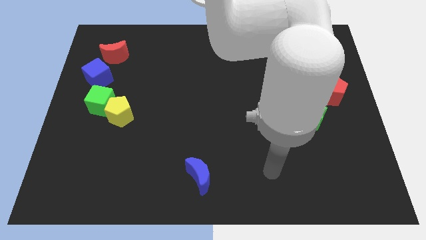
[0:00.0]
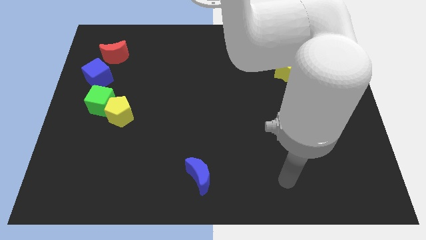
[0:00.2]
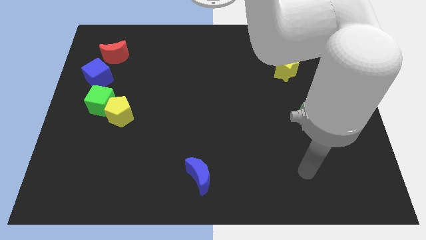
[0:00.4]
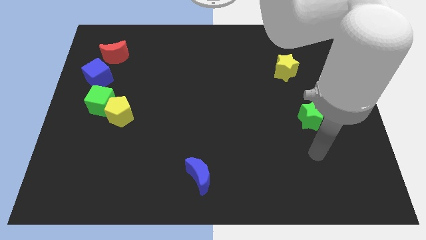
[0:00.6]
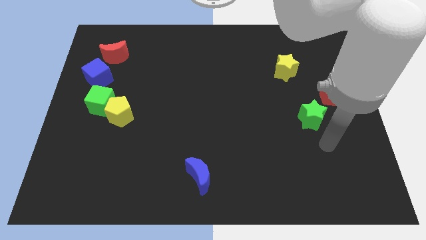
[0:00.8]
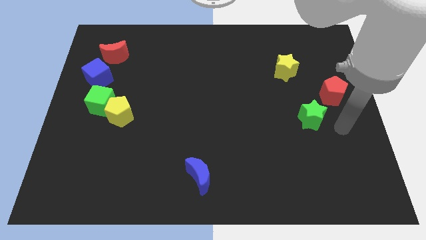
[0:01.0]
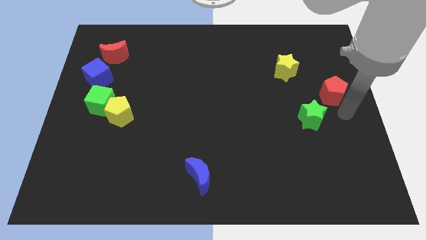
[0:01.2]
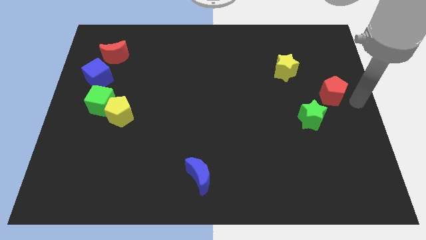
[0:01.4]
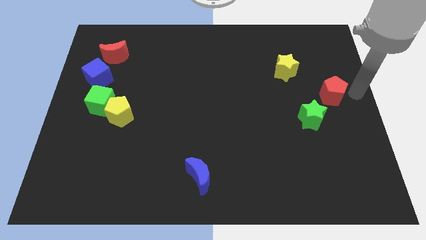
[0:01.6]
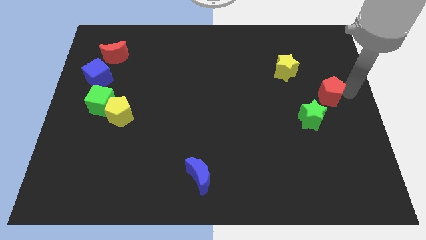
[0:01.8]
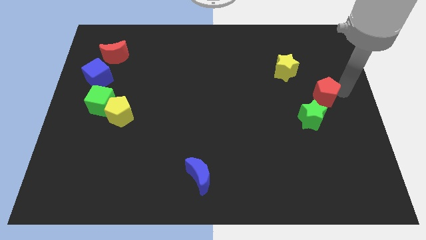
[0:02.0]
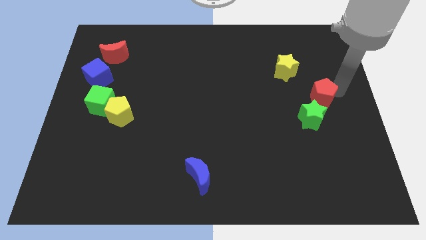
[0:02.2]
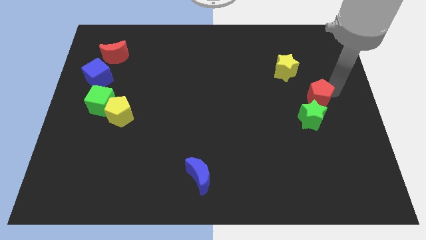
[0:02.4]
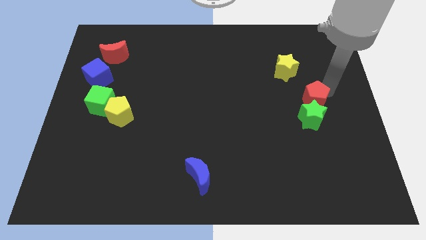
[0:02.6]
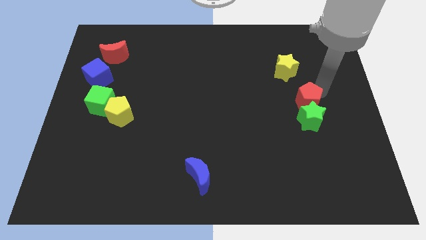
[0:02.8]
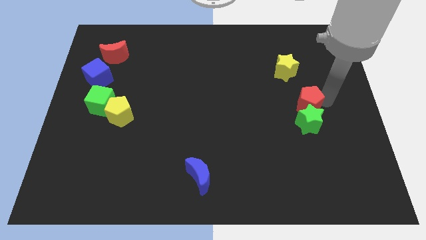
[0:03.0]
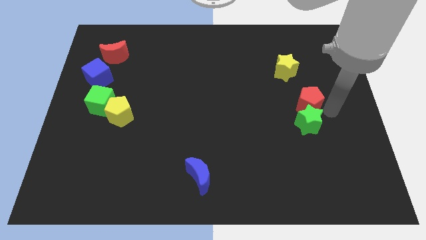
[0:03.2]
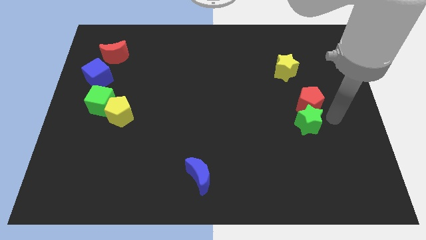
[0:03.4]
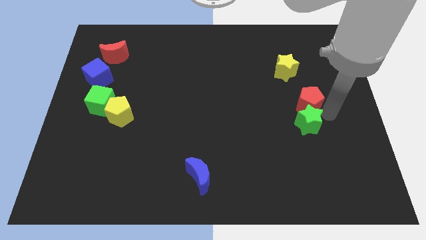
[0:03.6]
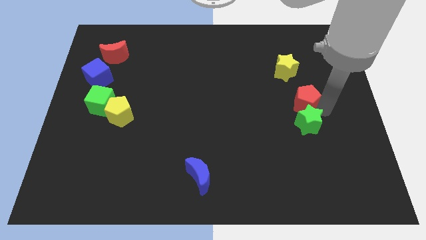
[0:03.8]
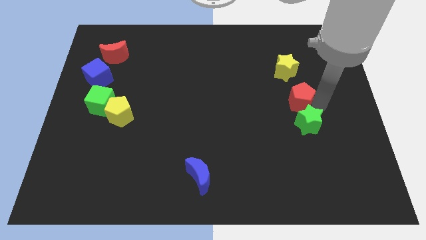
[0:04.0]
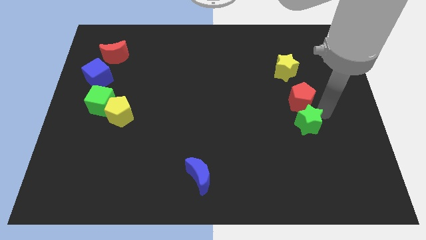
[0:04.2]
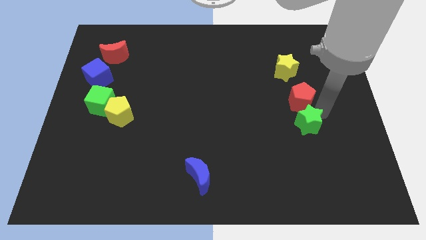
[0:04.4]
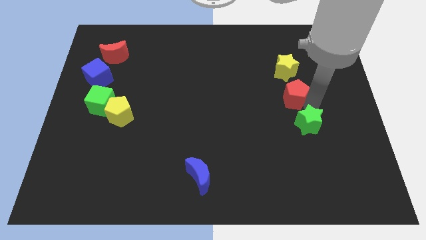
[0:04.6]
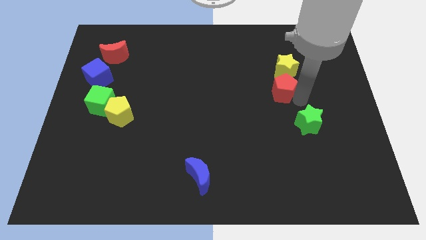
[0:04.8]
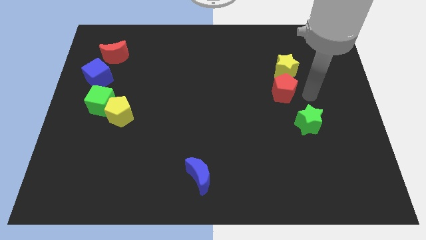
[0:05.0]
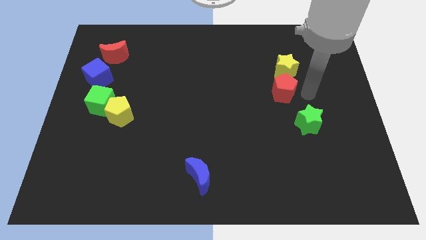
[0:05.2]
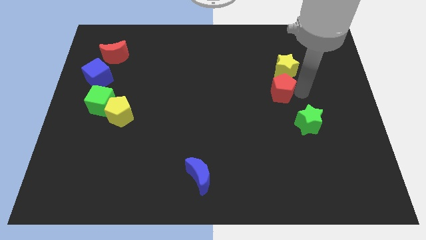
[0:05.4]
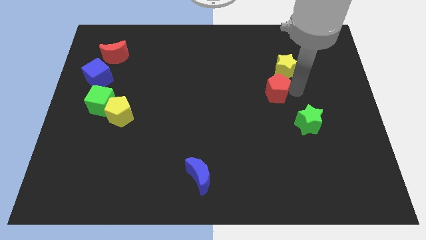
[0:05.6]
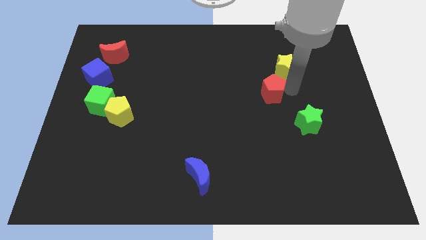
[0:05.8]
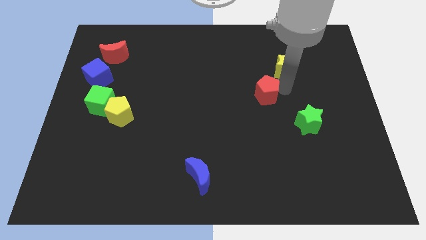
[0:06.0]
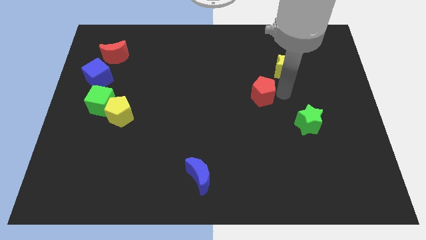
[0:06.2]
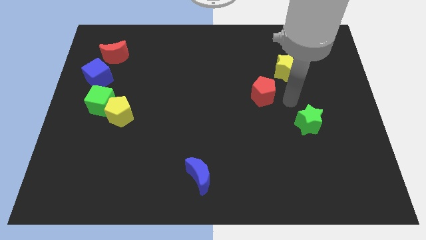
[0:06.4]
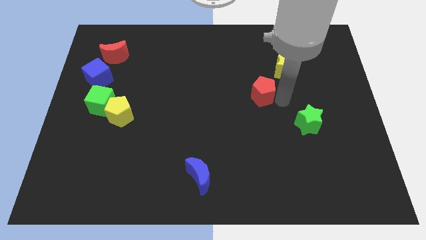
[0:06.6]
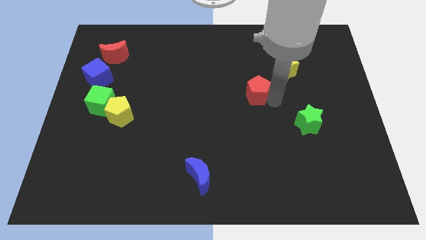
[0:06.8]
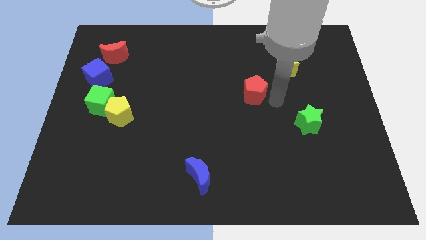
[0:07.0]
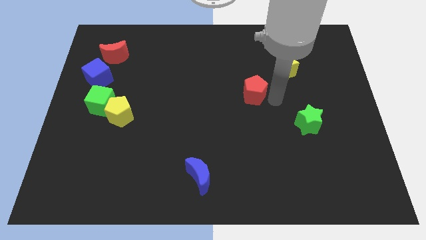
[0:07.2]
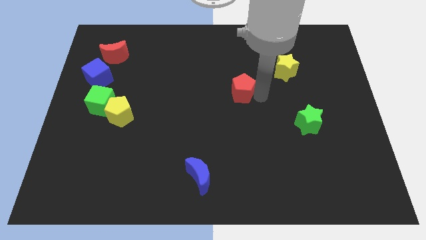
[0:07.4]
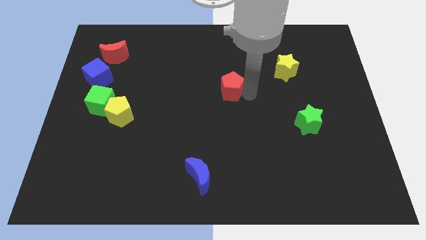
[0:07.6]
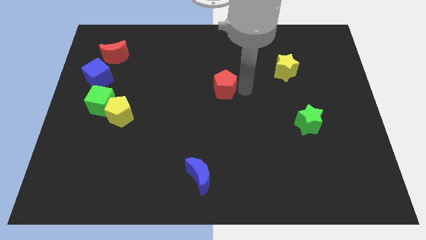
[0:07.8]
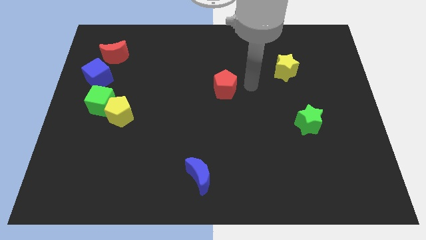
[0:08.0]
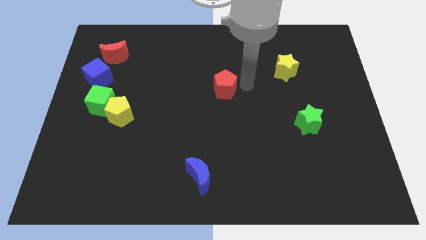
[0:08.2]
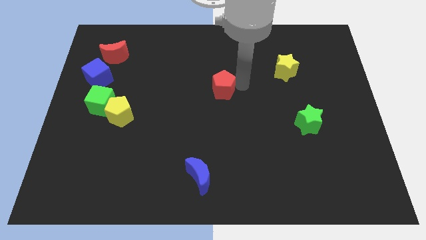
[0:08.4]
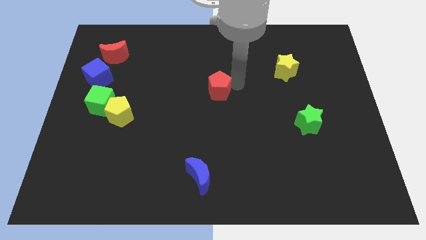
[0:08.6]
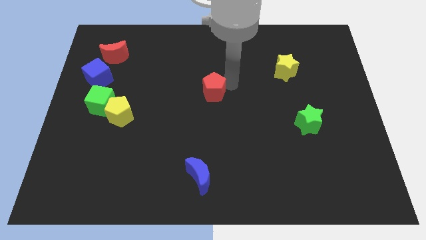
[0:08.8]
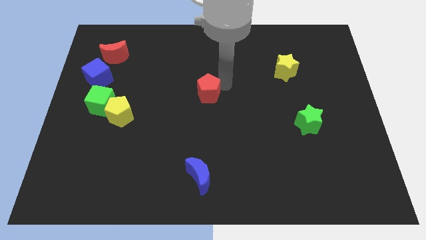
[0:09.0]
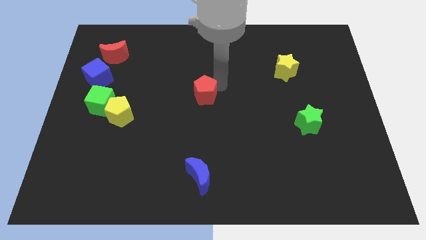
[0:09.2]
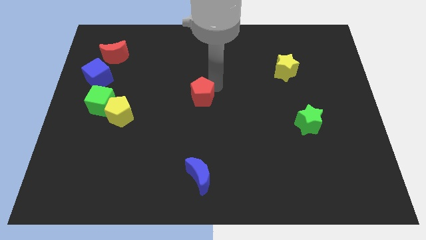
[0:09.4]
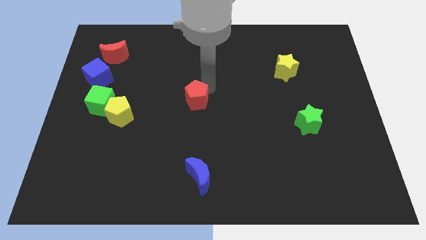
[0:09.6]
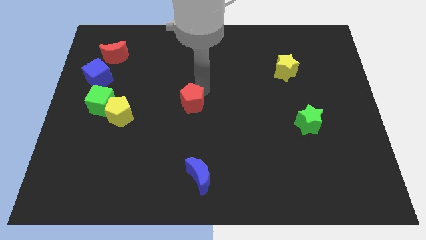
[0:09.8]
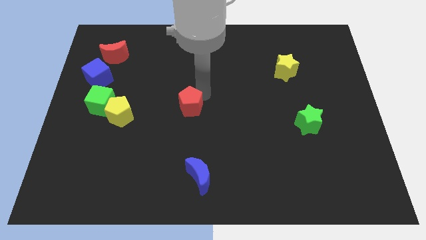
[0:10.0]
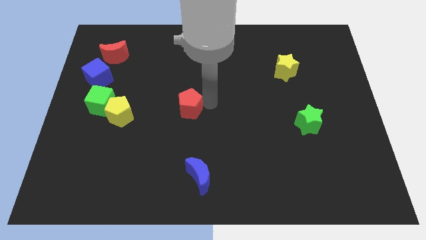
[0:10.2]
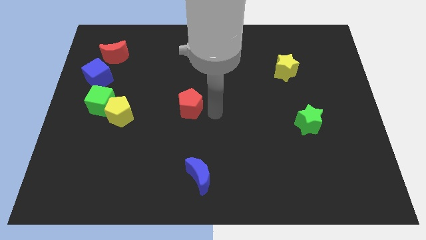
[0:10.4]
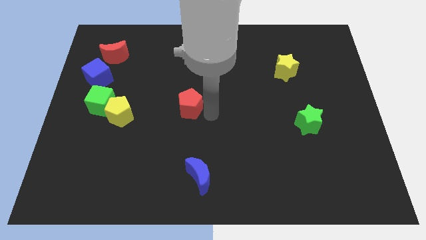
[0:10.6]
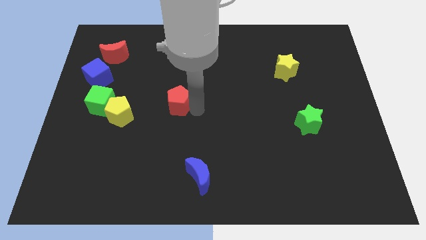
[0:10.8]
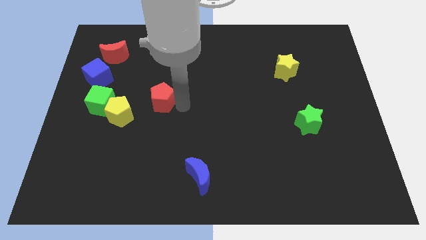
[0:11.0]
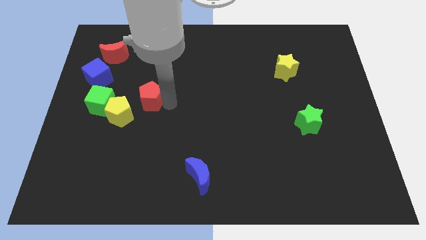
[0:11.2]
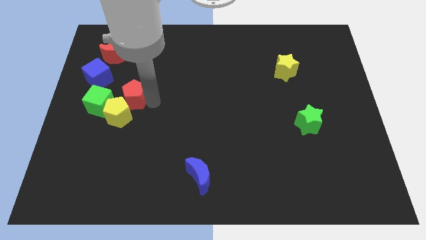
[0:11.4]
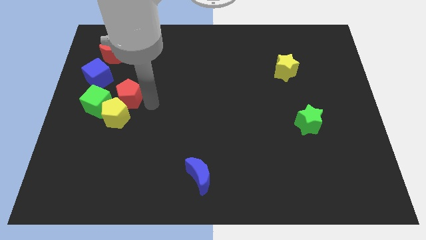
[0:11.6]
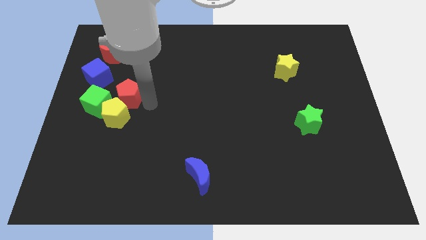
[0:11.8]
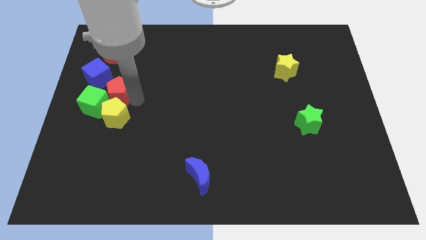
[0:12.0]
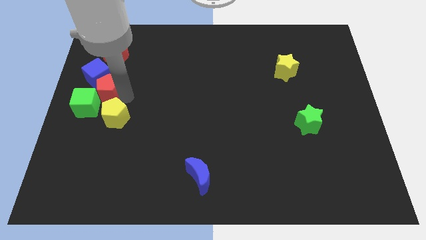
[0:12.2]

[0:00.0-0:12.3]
put the red pentagon to the left side
